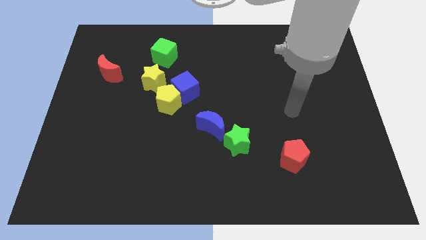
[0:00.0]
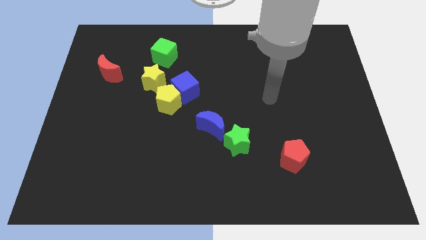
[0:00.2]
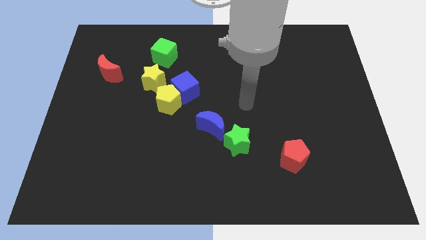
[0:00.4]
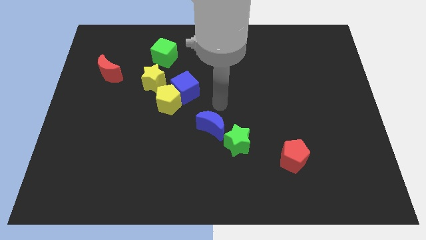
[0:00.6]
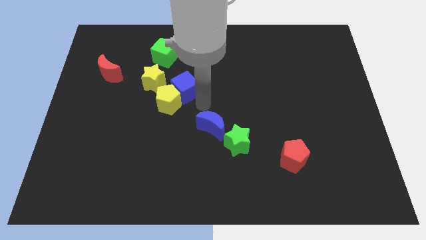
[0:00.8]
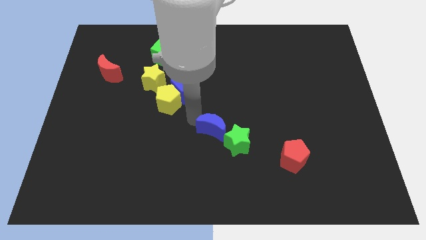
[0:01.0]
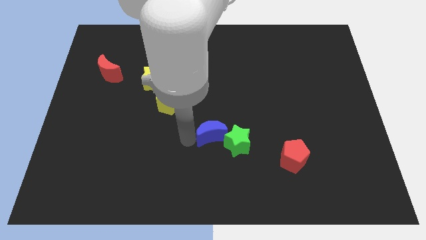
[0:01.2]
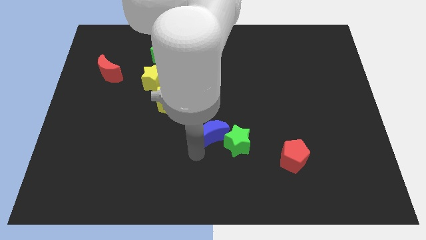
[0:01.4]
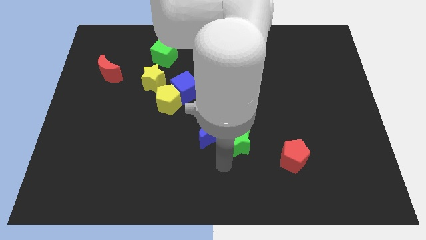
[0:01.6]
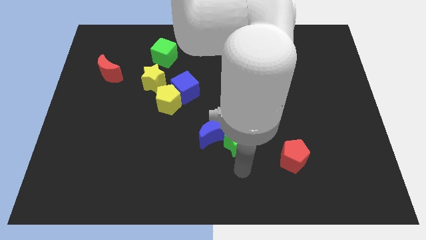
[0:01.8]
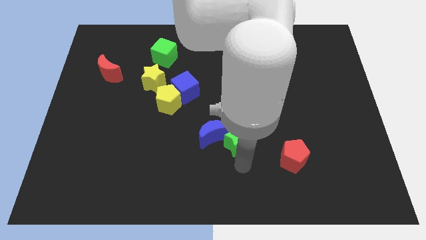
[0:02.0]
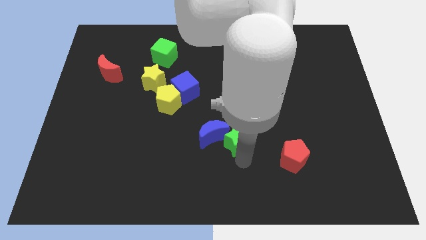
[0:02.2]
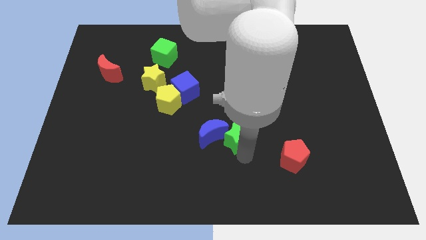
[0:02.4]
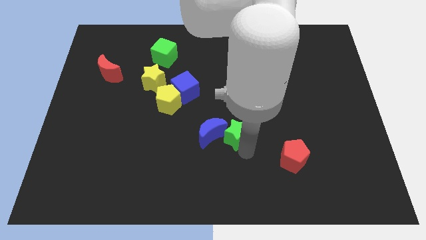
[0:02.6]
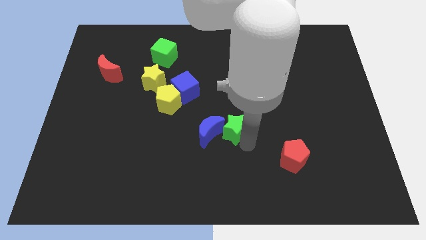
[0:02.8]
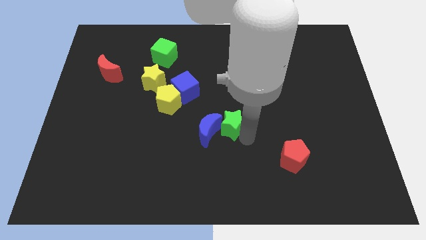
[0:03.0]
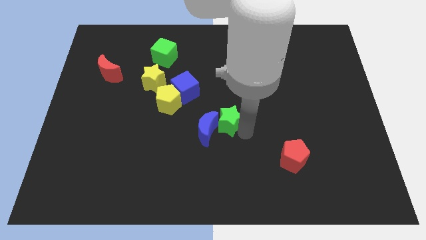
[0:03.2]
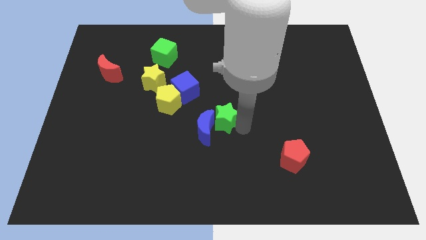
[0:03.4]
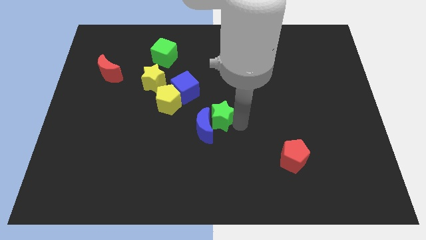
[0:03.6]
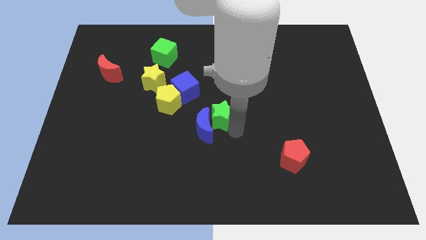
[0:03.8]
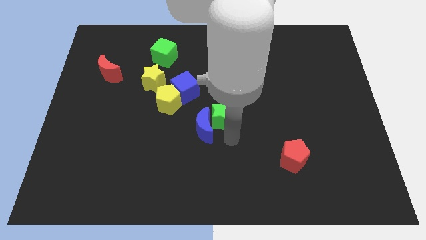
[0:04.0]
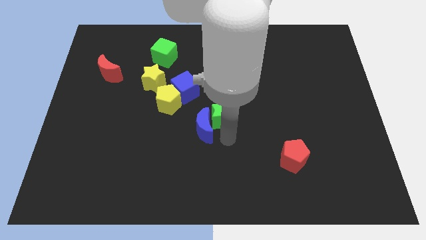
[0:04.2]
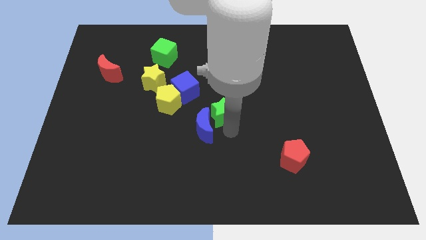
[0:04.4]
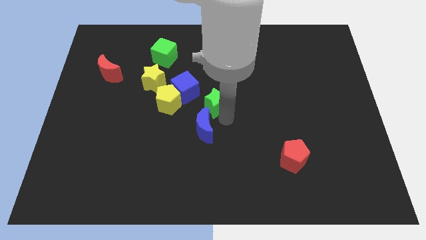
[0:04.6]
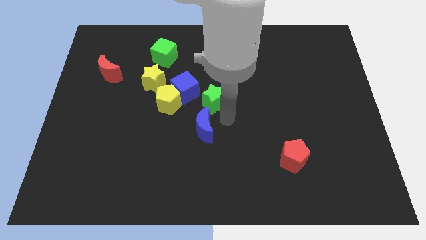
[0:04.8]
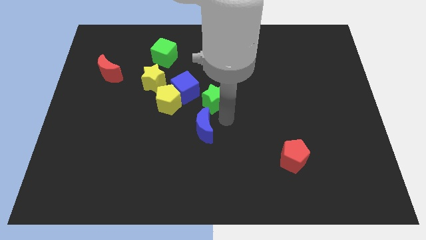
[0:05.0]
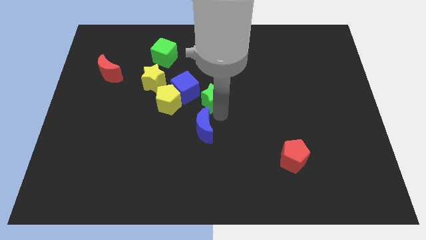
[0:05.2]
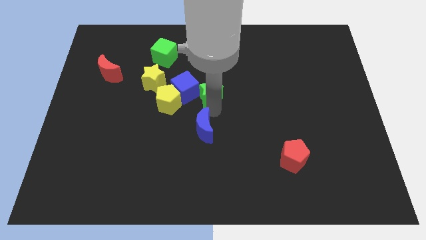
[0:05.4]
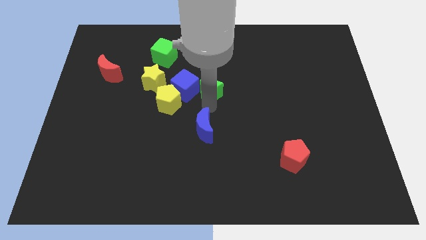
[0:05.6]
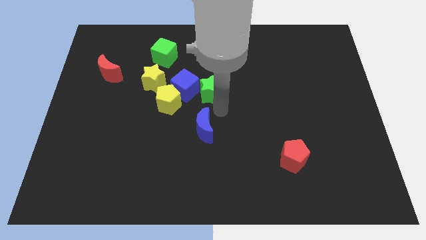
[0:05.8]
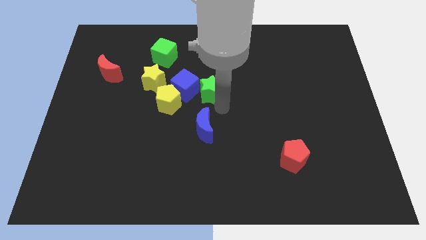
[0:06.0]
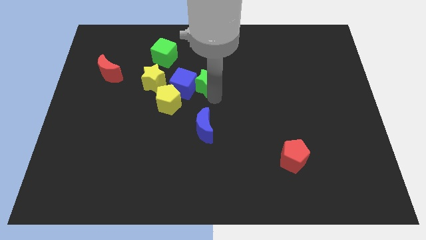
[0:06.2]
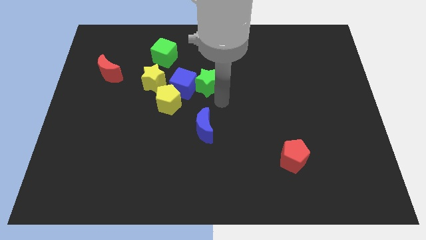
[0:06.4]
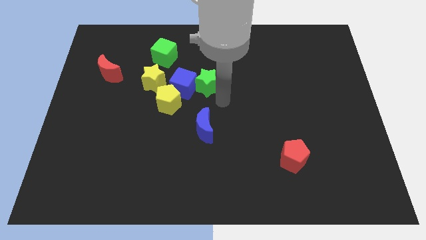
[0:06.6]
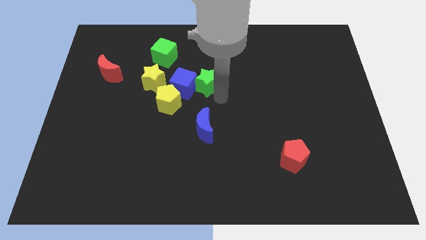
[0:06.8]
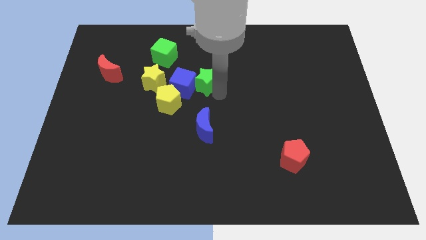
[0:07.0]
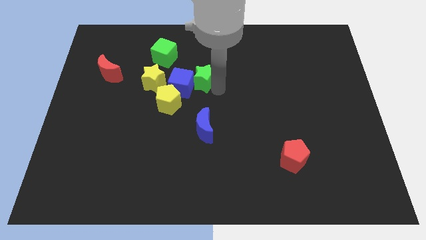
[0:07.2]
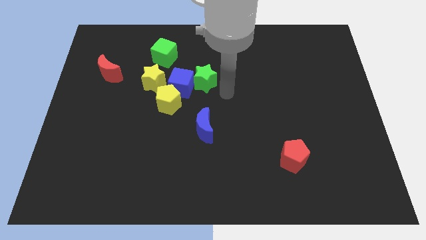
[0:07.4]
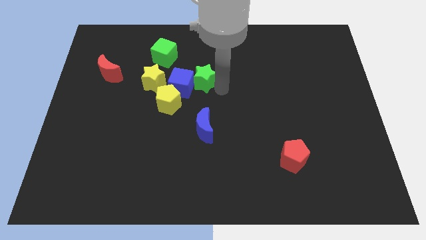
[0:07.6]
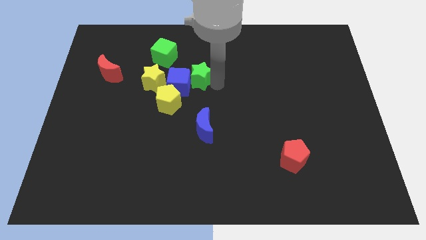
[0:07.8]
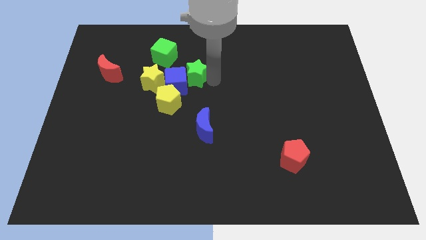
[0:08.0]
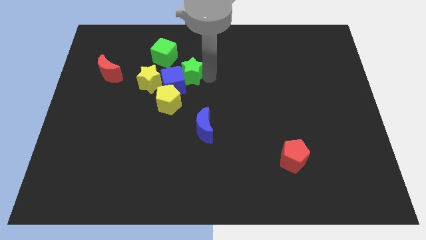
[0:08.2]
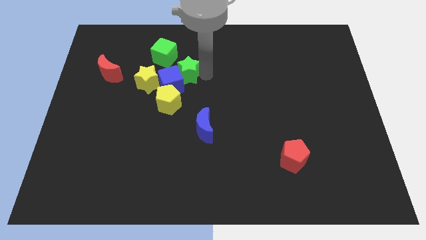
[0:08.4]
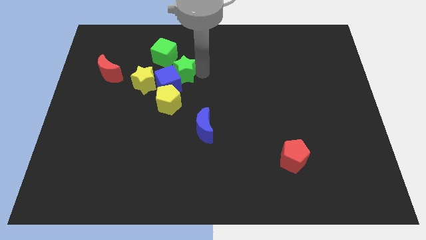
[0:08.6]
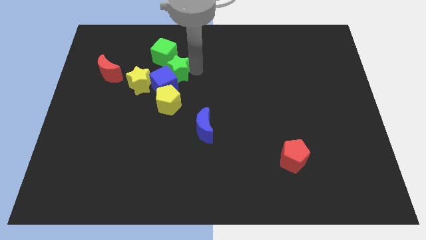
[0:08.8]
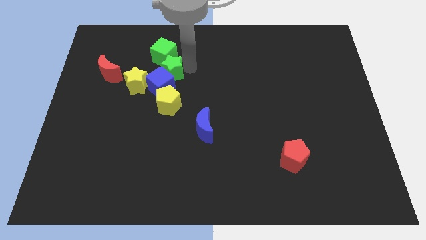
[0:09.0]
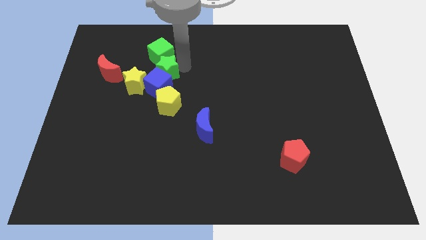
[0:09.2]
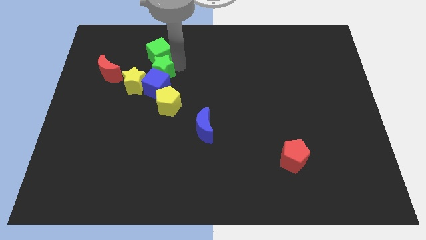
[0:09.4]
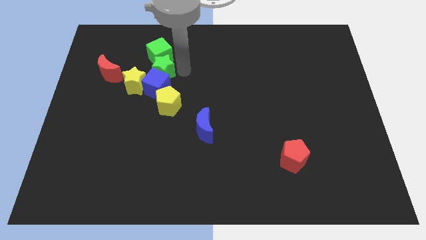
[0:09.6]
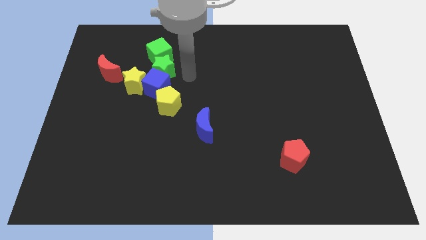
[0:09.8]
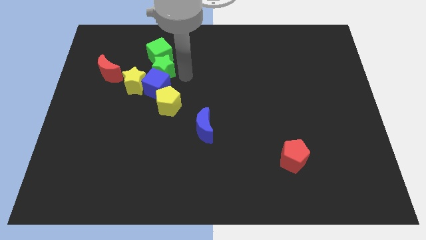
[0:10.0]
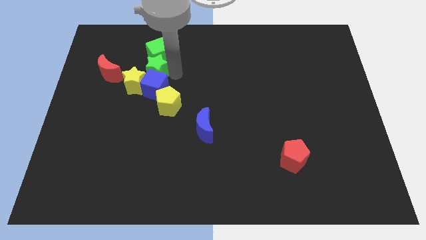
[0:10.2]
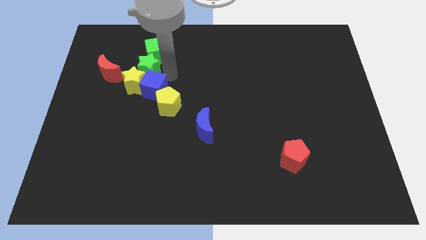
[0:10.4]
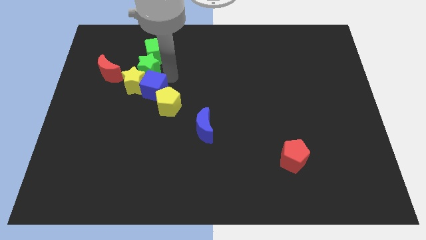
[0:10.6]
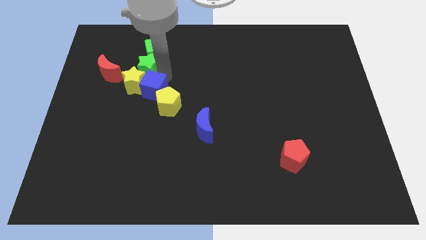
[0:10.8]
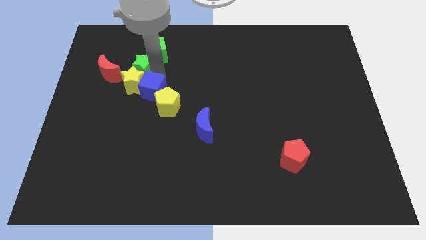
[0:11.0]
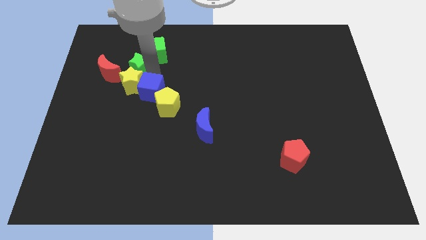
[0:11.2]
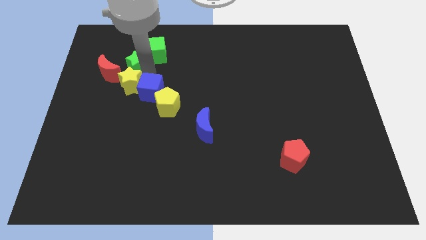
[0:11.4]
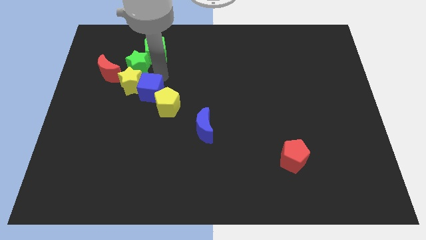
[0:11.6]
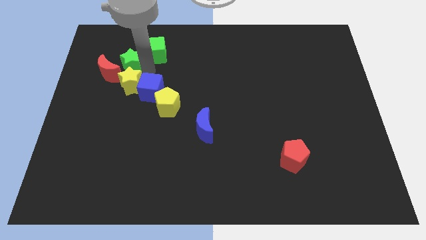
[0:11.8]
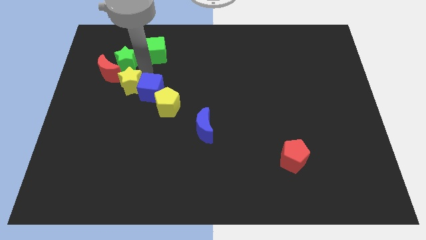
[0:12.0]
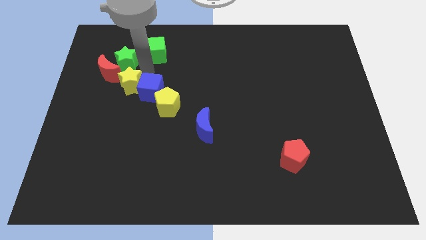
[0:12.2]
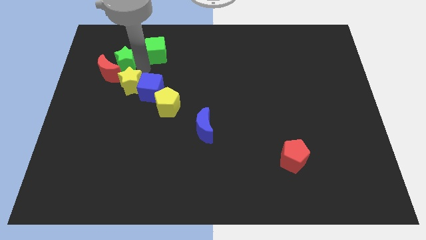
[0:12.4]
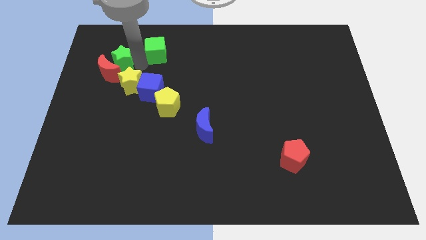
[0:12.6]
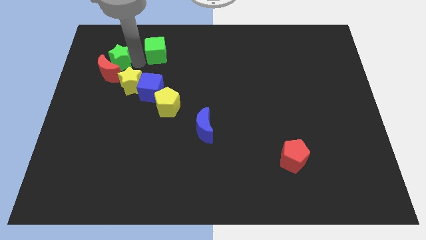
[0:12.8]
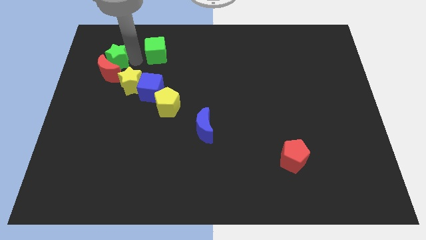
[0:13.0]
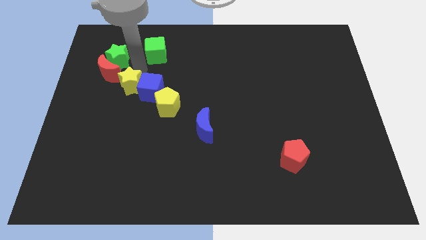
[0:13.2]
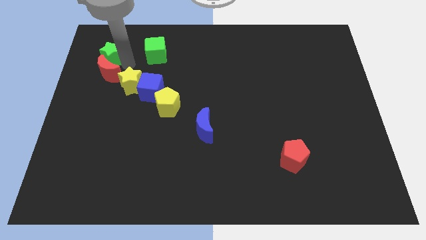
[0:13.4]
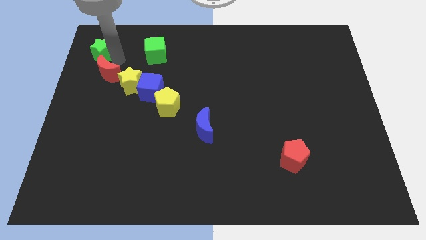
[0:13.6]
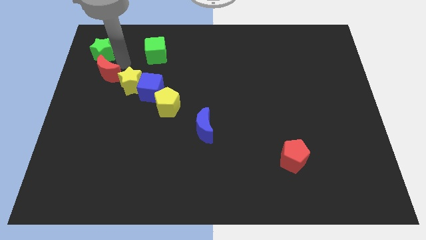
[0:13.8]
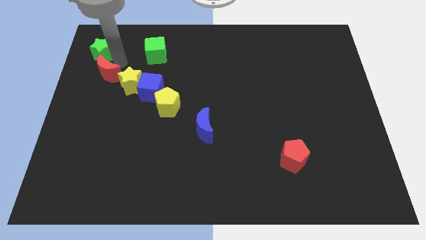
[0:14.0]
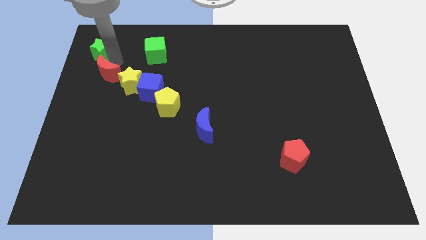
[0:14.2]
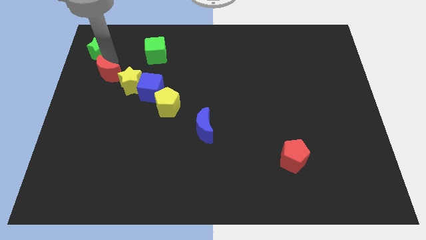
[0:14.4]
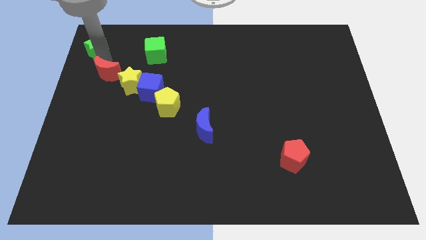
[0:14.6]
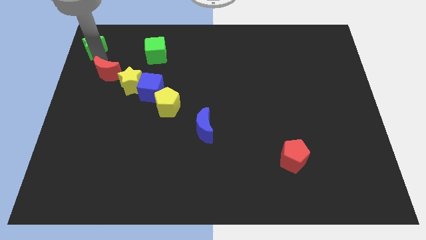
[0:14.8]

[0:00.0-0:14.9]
push the green star to the top left corner
